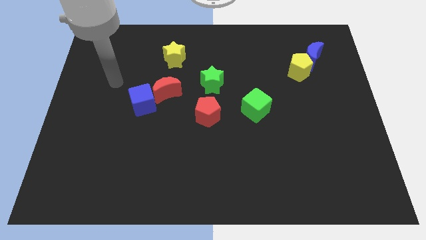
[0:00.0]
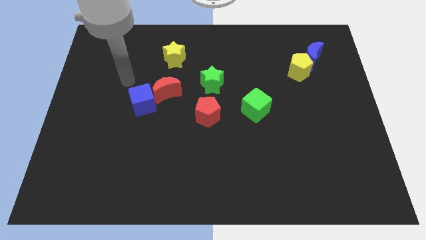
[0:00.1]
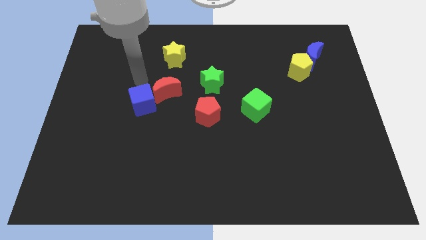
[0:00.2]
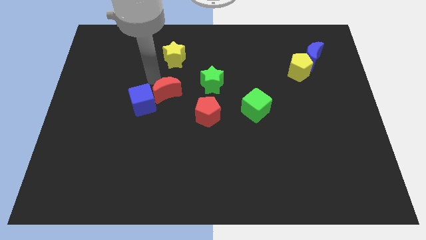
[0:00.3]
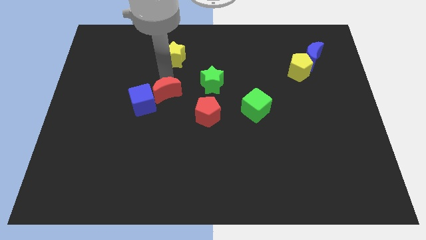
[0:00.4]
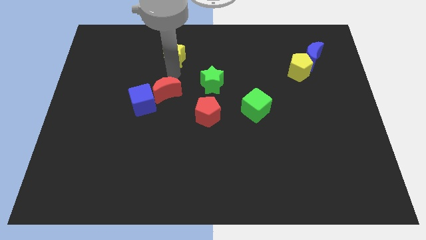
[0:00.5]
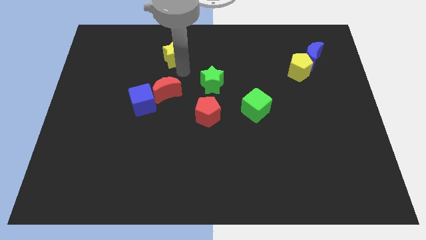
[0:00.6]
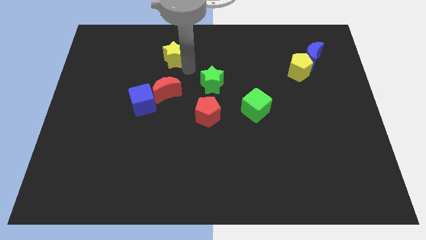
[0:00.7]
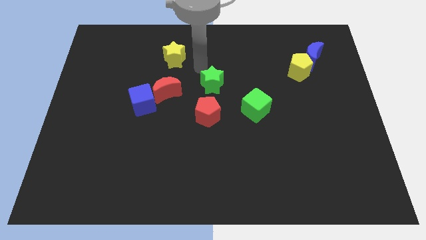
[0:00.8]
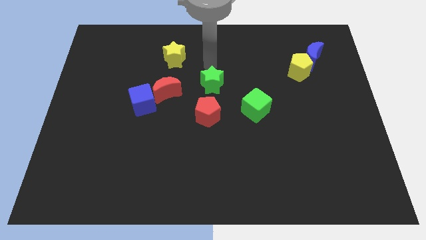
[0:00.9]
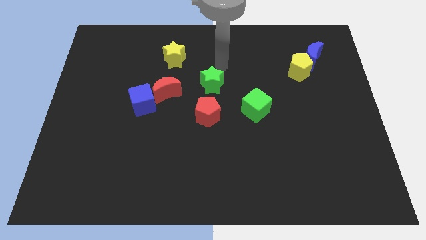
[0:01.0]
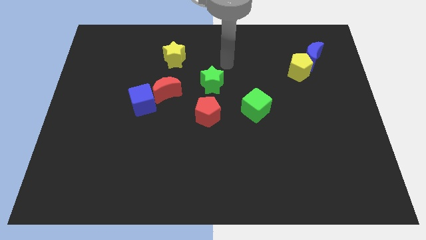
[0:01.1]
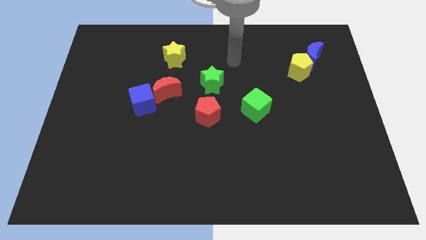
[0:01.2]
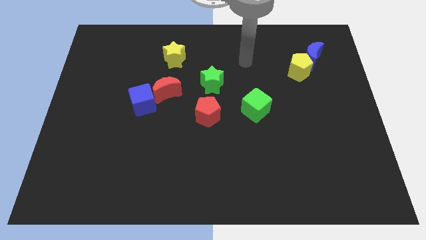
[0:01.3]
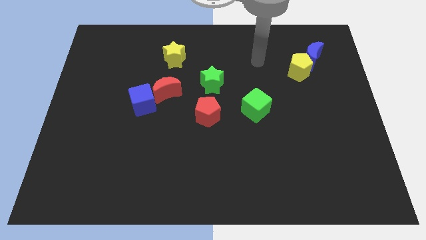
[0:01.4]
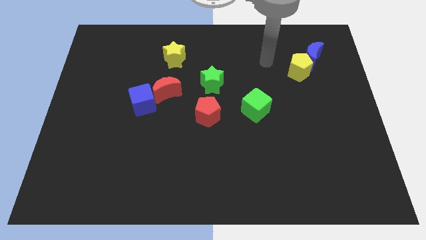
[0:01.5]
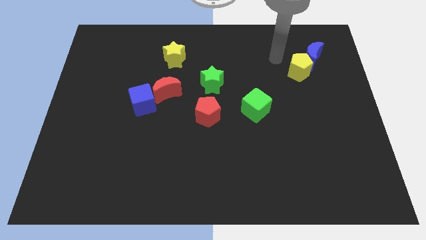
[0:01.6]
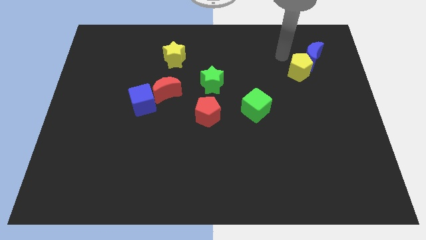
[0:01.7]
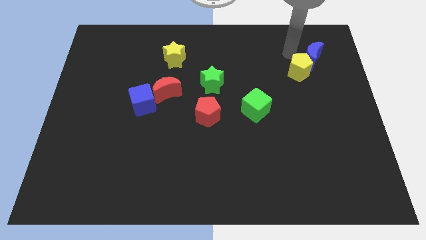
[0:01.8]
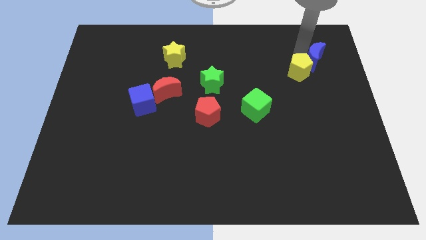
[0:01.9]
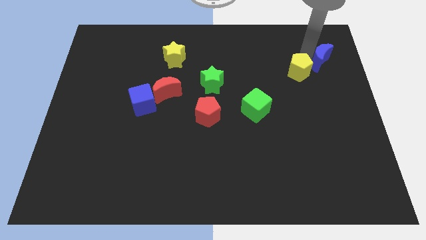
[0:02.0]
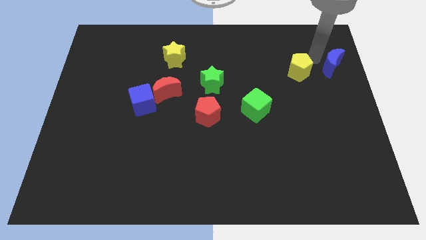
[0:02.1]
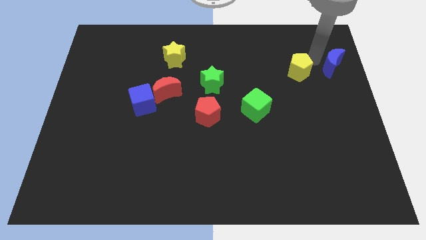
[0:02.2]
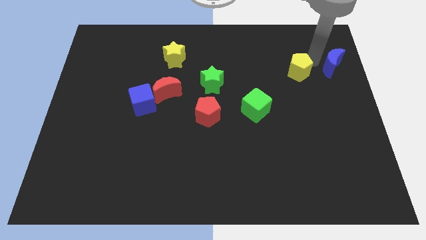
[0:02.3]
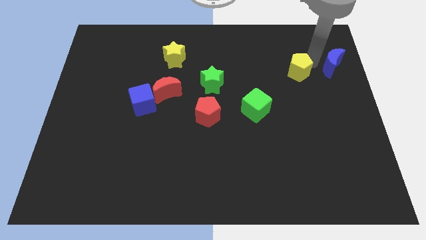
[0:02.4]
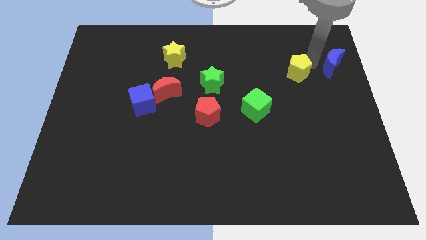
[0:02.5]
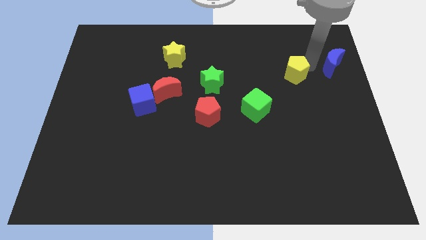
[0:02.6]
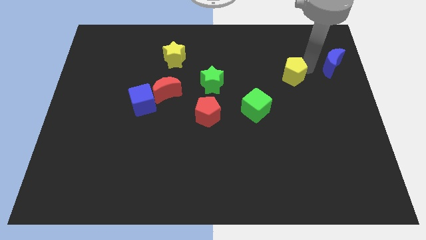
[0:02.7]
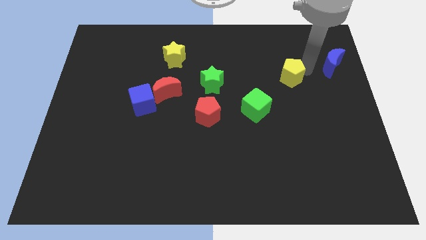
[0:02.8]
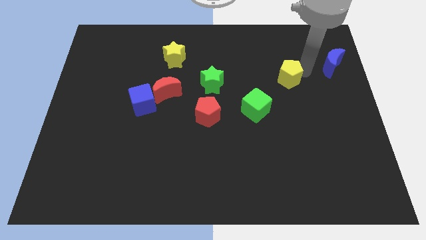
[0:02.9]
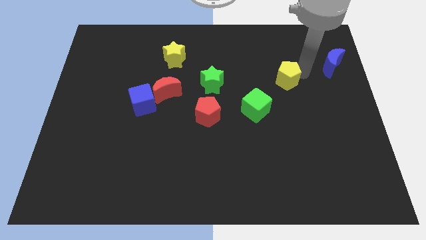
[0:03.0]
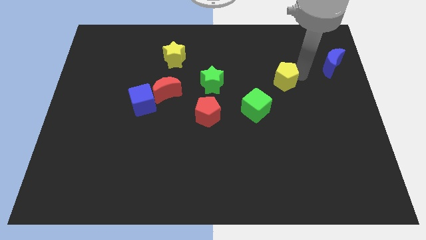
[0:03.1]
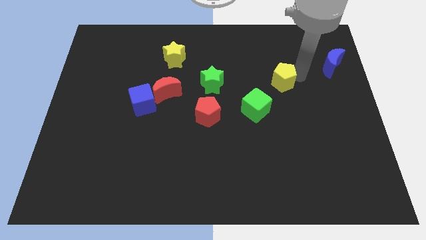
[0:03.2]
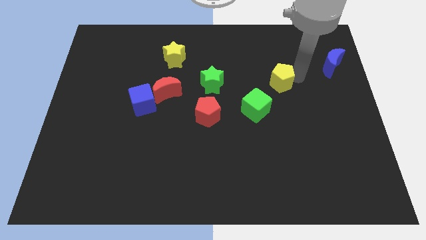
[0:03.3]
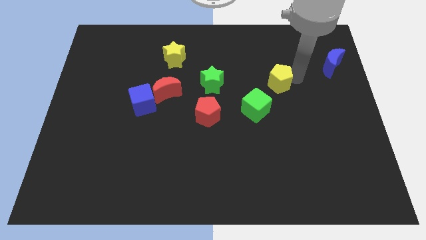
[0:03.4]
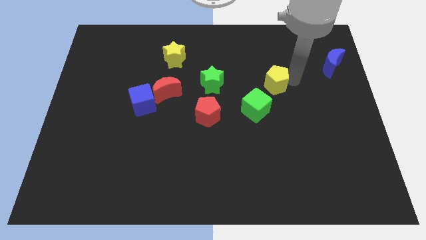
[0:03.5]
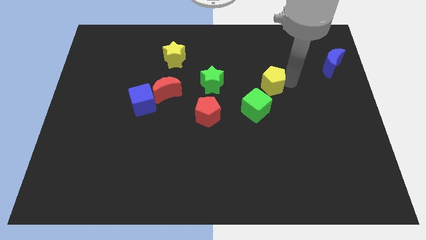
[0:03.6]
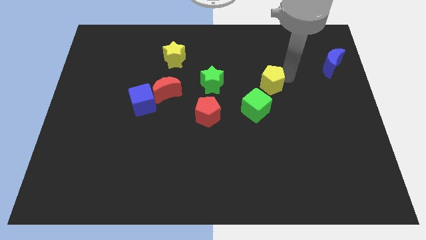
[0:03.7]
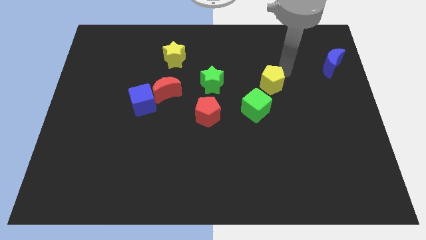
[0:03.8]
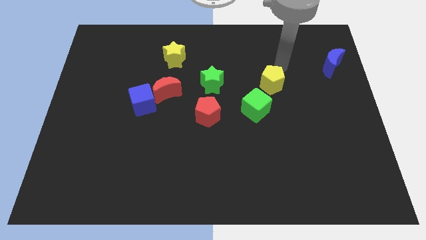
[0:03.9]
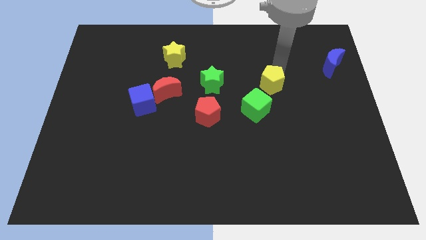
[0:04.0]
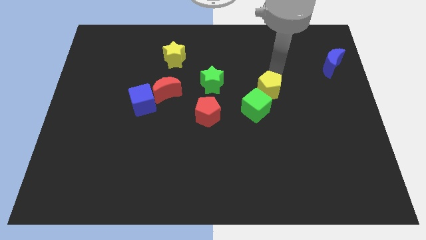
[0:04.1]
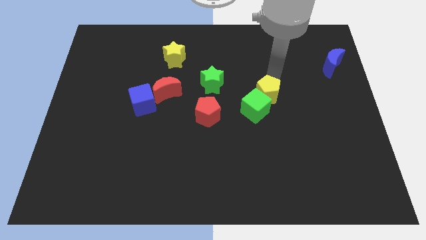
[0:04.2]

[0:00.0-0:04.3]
push the yellow pentagon next to the green cube

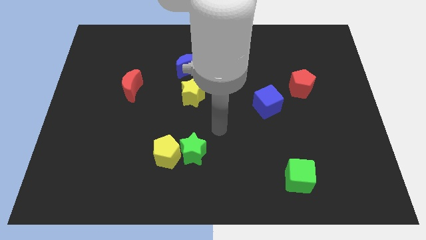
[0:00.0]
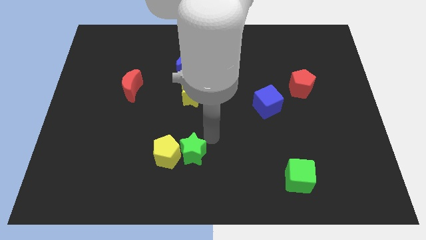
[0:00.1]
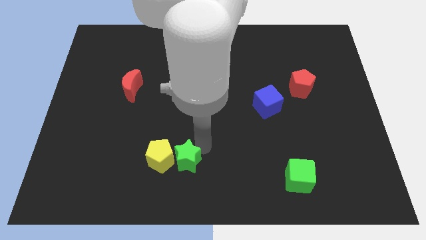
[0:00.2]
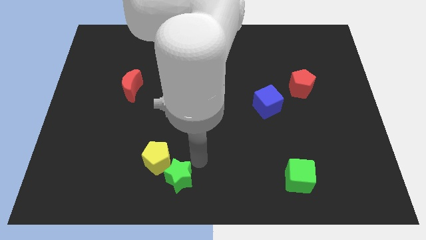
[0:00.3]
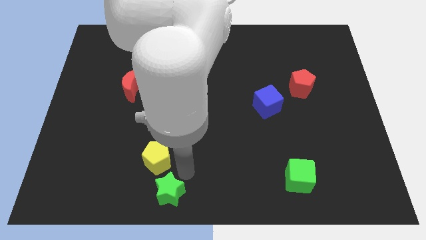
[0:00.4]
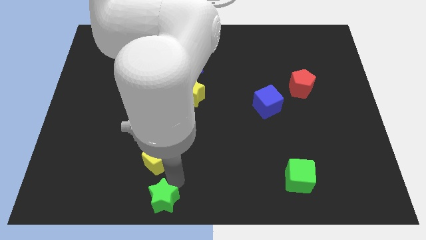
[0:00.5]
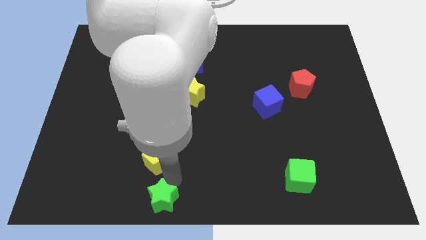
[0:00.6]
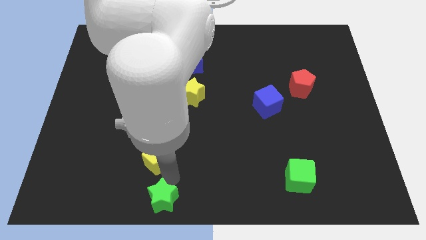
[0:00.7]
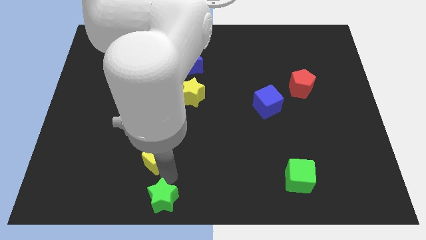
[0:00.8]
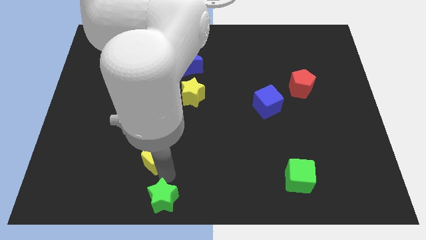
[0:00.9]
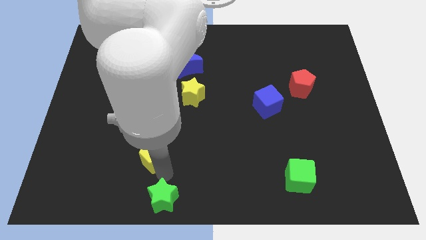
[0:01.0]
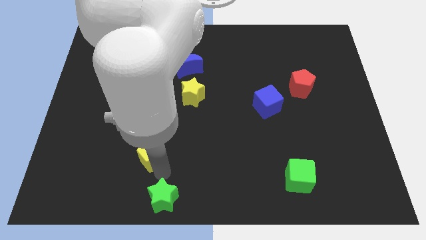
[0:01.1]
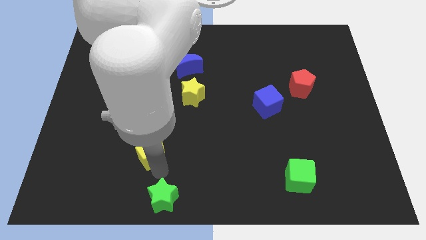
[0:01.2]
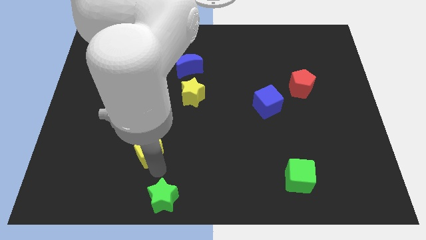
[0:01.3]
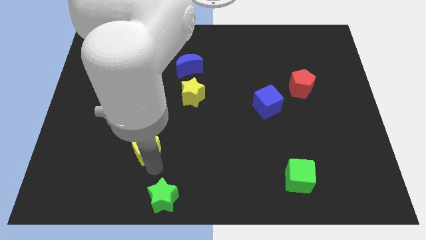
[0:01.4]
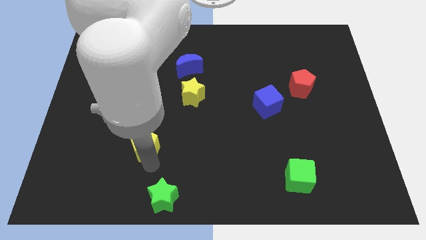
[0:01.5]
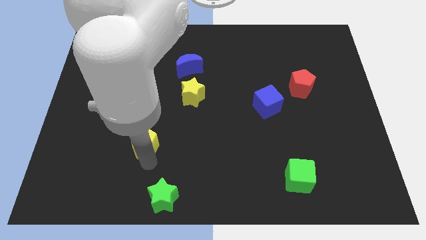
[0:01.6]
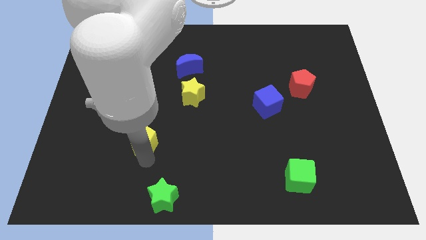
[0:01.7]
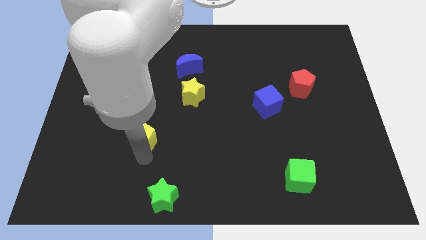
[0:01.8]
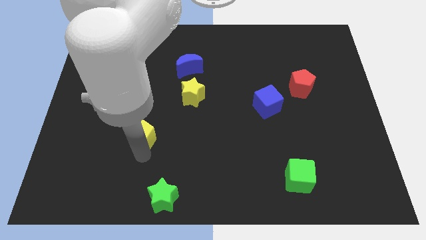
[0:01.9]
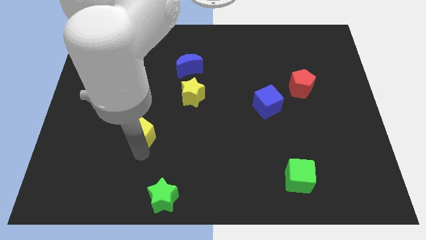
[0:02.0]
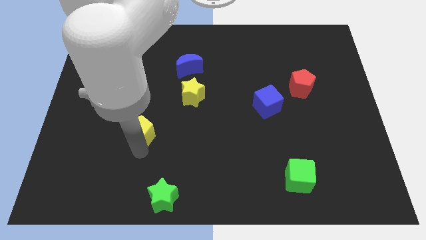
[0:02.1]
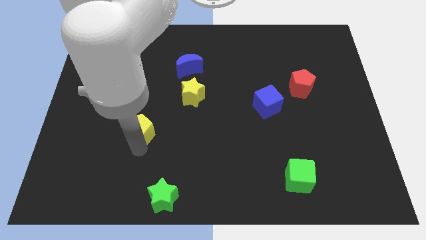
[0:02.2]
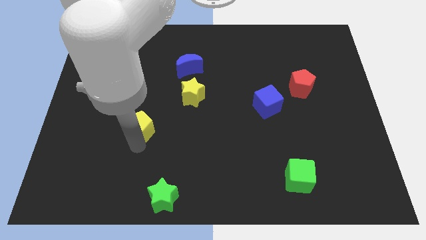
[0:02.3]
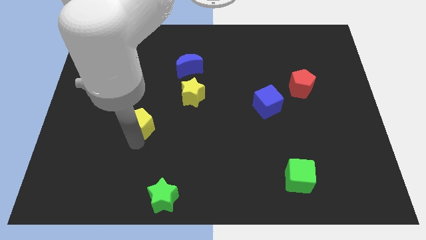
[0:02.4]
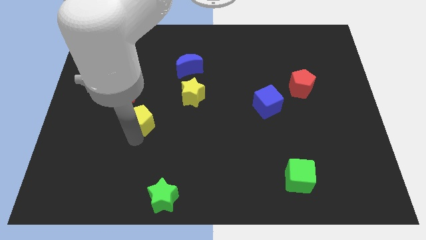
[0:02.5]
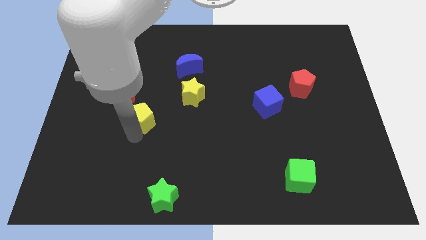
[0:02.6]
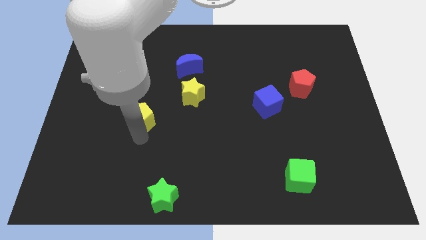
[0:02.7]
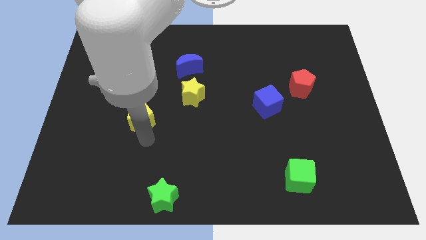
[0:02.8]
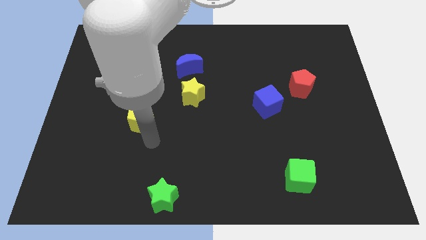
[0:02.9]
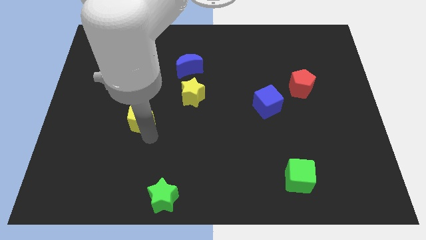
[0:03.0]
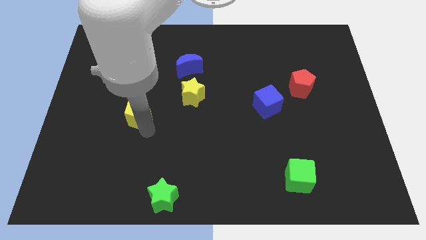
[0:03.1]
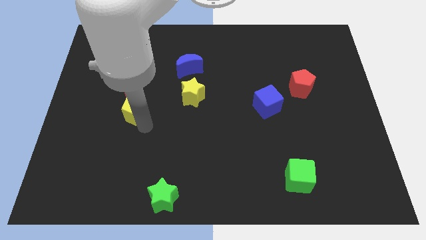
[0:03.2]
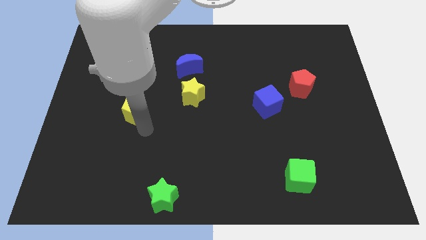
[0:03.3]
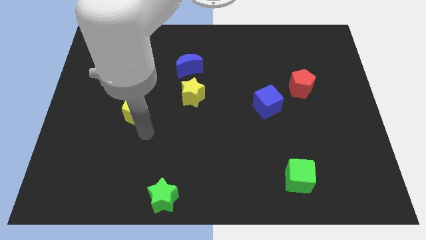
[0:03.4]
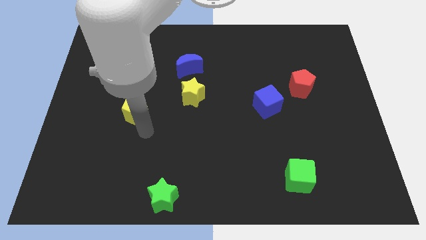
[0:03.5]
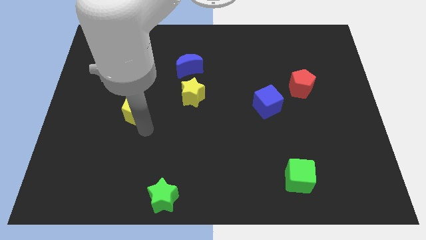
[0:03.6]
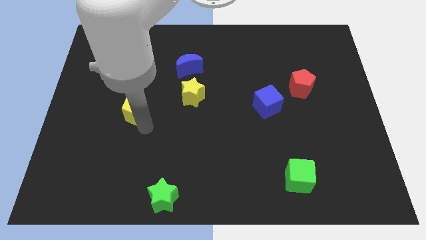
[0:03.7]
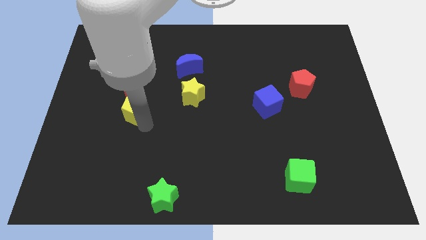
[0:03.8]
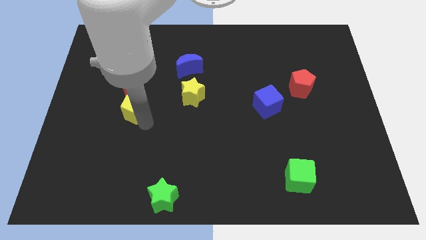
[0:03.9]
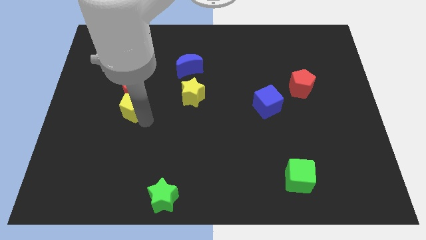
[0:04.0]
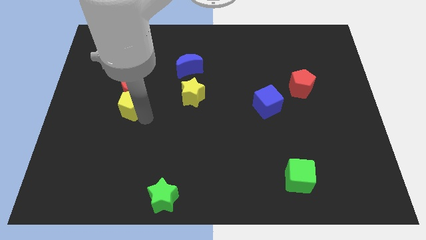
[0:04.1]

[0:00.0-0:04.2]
push the yellow pentagon towards the red moon
